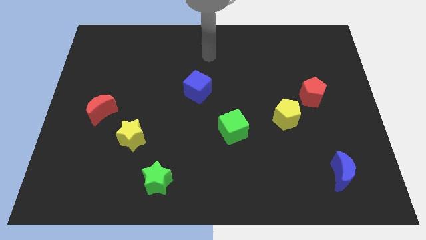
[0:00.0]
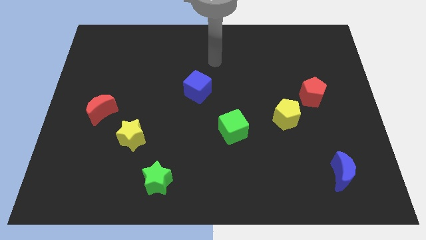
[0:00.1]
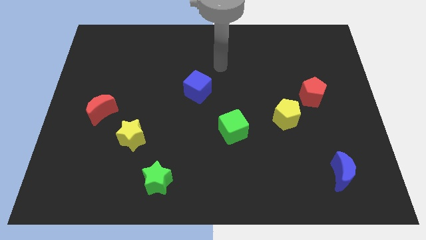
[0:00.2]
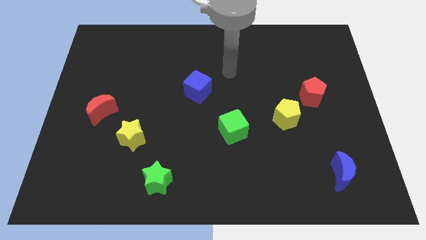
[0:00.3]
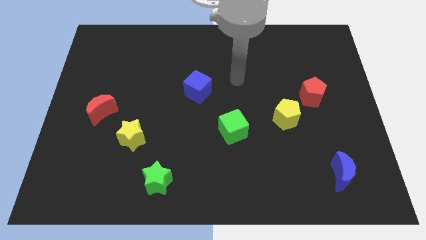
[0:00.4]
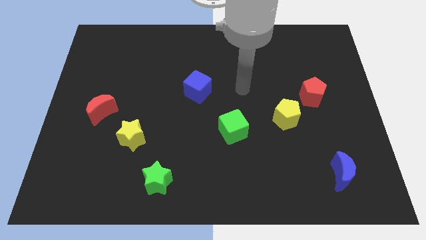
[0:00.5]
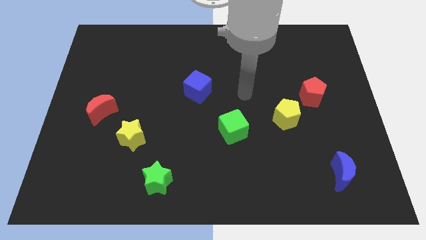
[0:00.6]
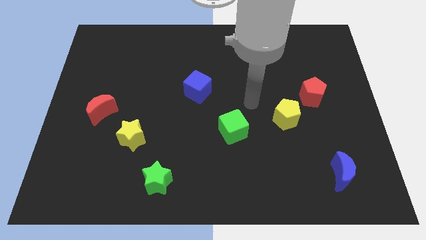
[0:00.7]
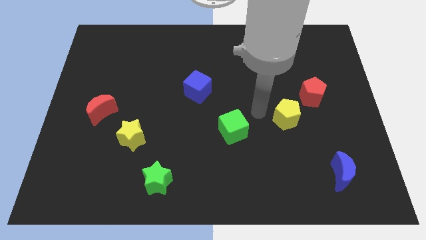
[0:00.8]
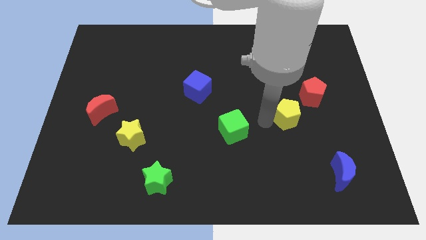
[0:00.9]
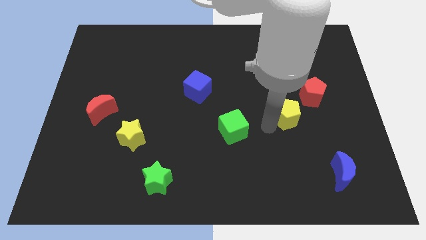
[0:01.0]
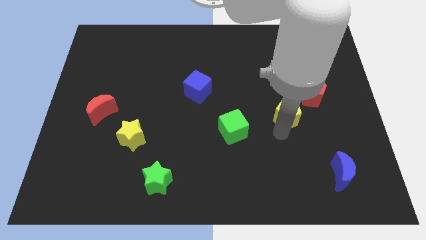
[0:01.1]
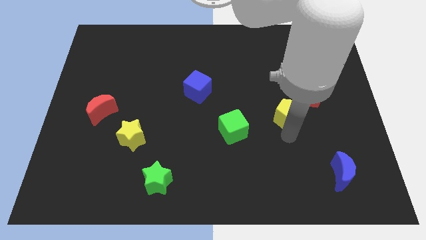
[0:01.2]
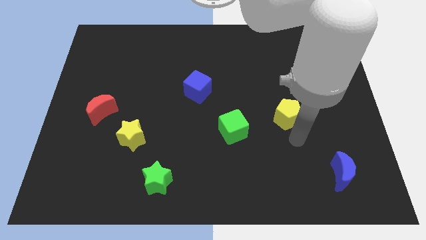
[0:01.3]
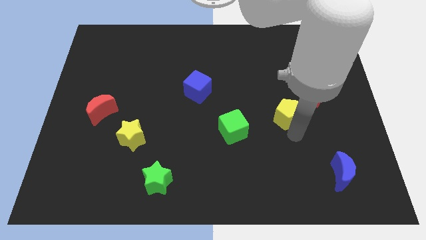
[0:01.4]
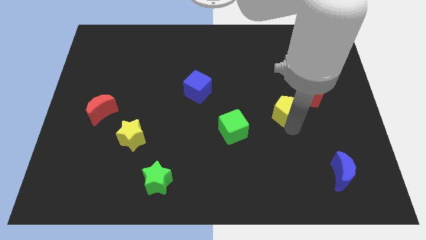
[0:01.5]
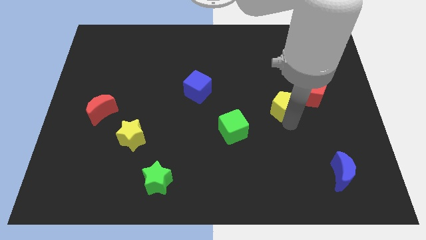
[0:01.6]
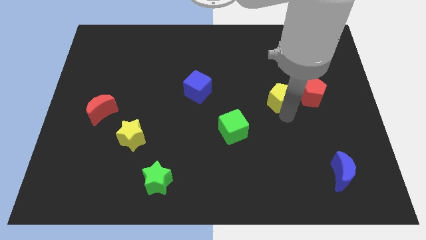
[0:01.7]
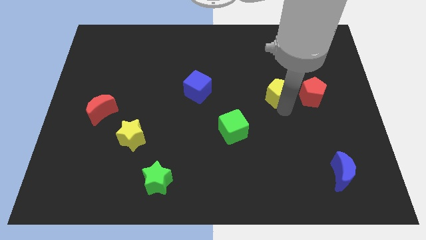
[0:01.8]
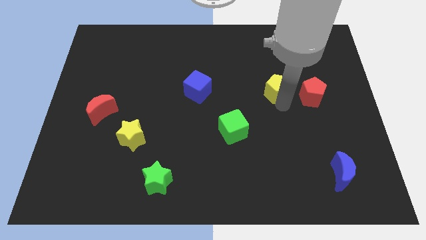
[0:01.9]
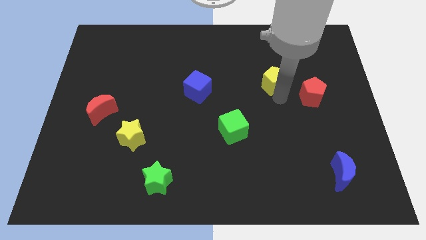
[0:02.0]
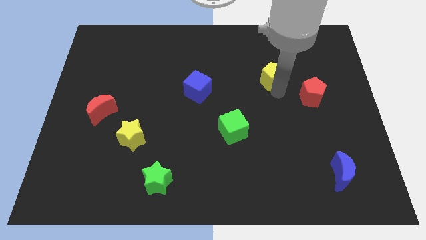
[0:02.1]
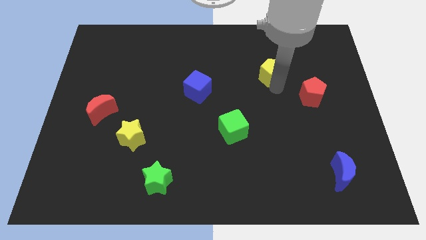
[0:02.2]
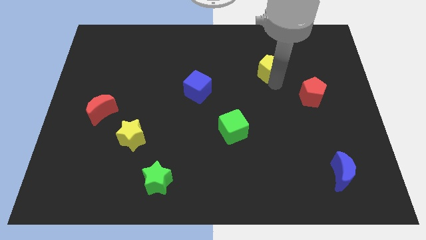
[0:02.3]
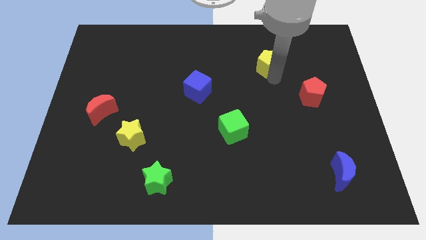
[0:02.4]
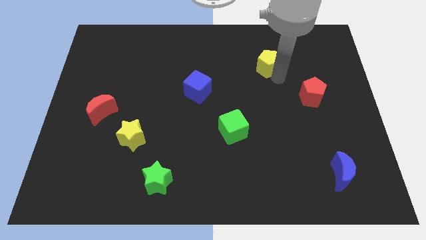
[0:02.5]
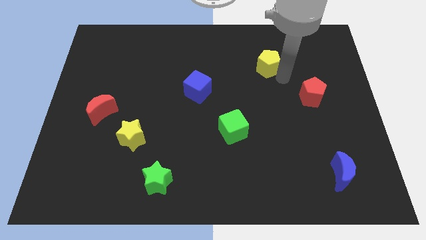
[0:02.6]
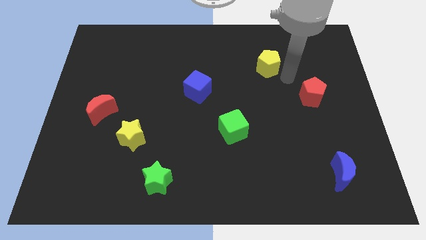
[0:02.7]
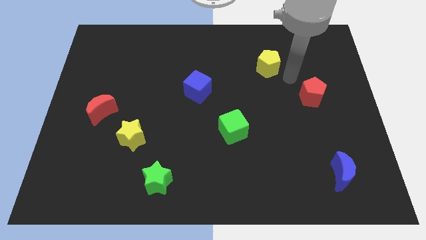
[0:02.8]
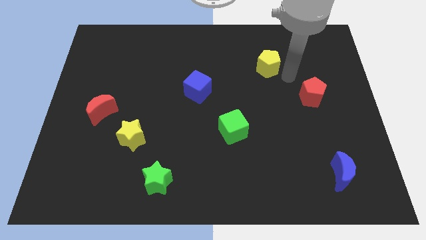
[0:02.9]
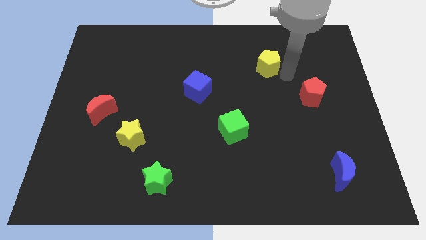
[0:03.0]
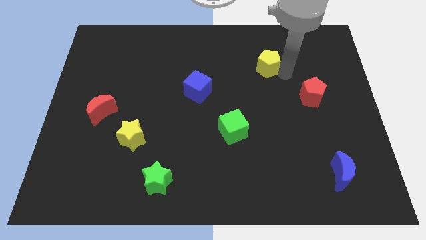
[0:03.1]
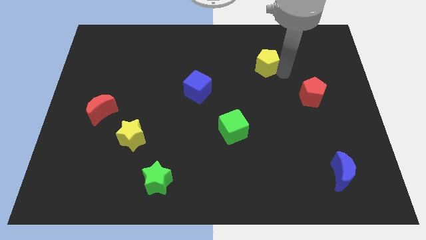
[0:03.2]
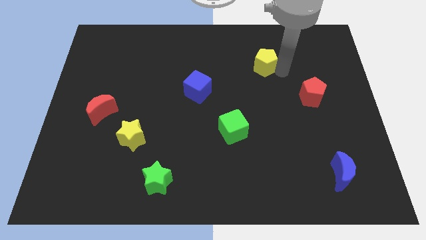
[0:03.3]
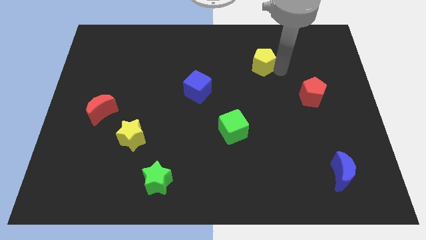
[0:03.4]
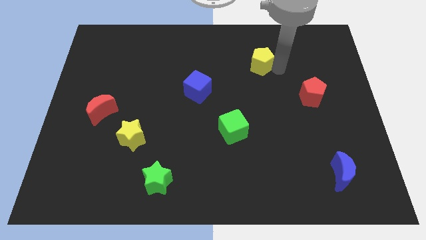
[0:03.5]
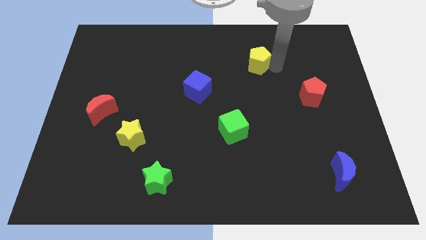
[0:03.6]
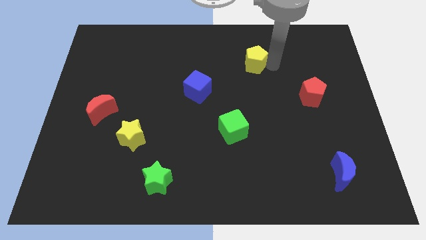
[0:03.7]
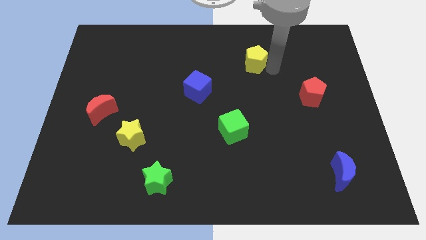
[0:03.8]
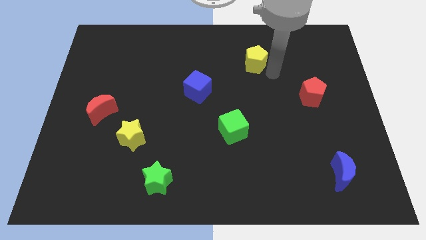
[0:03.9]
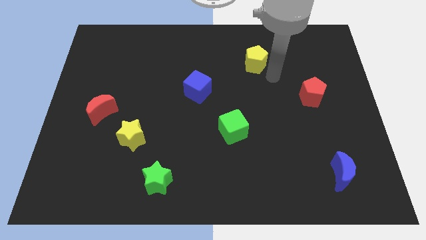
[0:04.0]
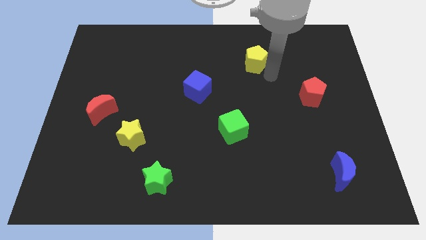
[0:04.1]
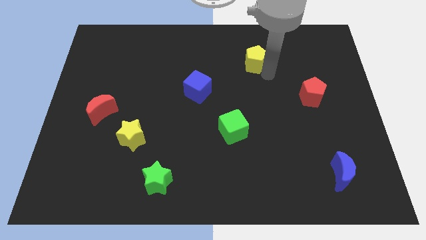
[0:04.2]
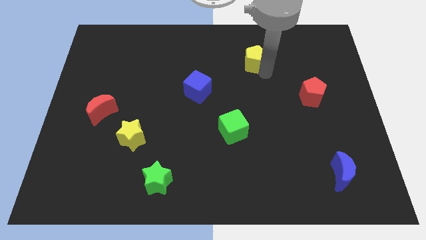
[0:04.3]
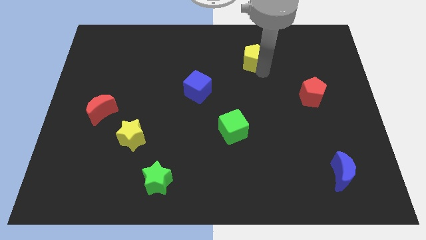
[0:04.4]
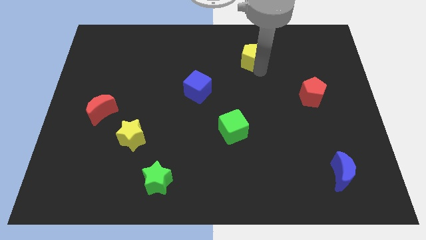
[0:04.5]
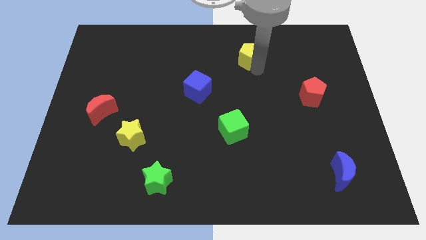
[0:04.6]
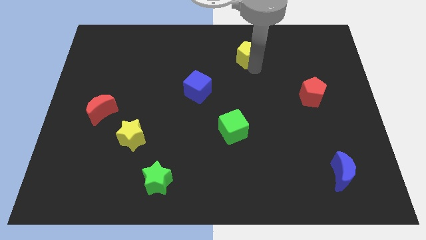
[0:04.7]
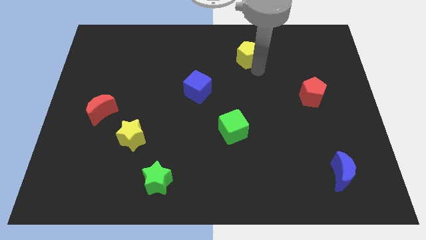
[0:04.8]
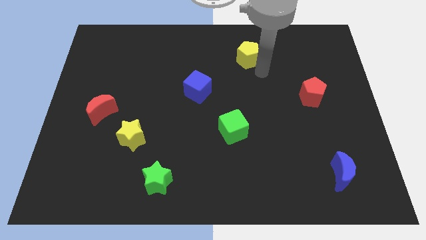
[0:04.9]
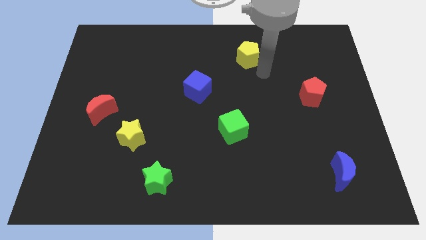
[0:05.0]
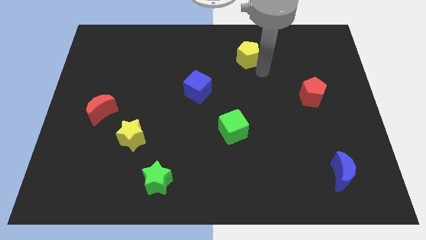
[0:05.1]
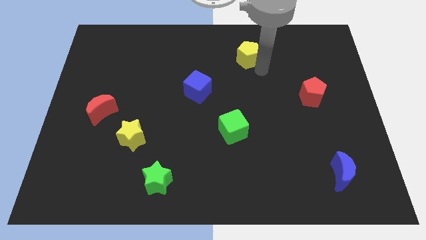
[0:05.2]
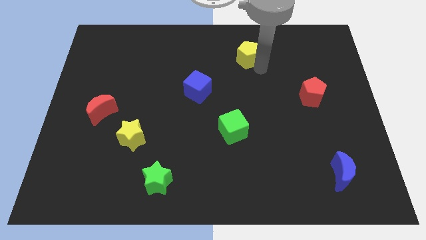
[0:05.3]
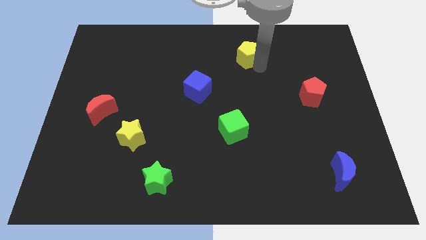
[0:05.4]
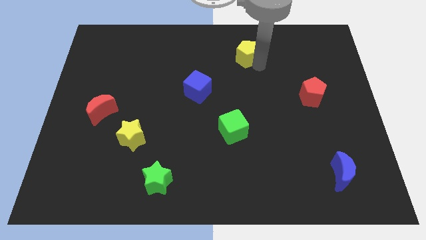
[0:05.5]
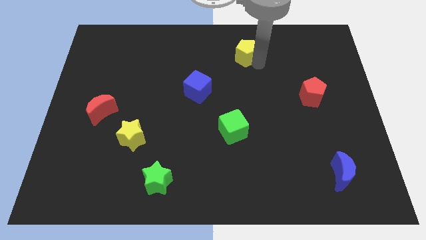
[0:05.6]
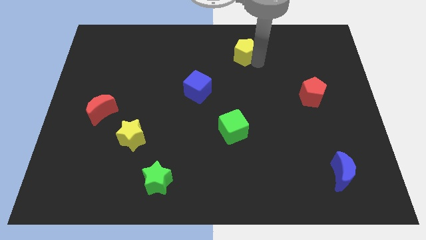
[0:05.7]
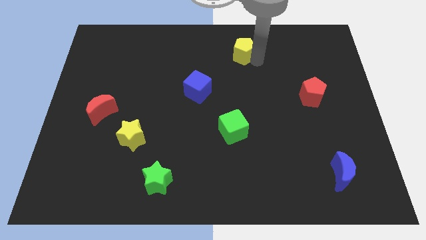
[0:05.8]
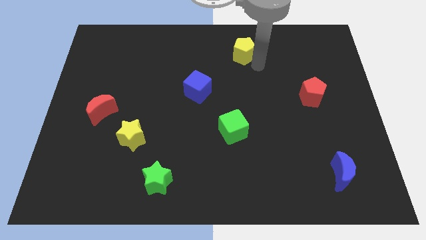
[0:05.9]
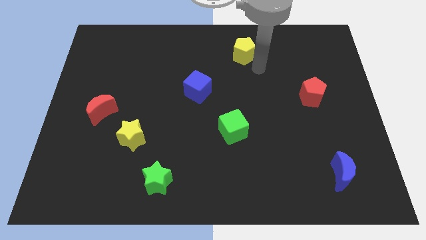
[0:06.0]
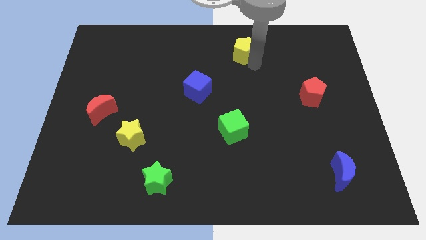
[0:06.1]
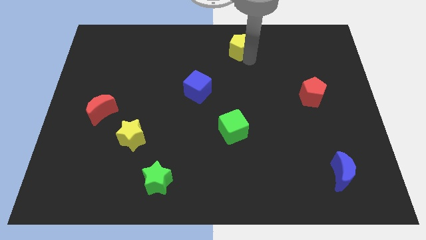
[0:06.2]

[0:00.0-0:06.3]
move the yellow pentagon to the top side

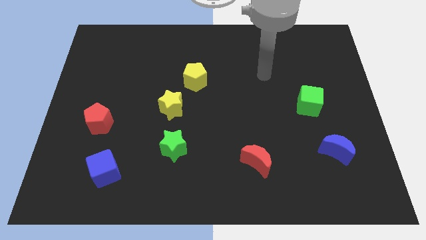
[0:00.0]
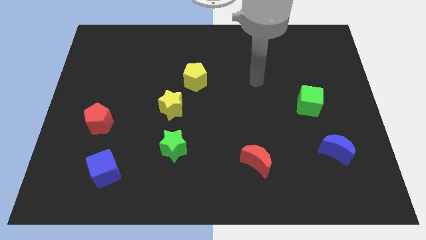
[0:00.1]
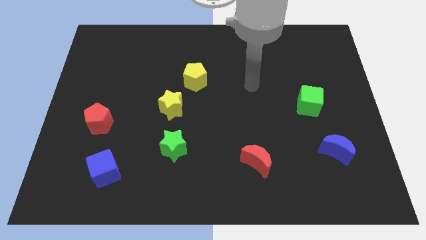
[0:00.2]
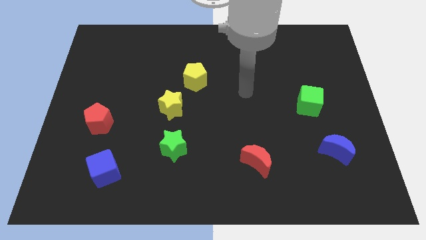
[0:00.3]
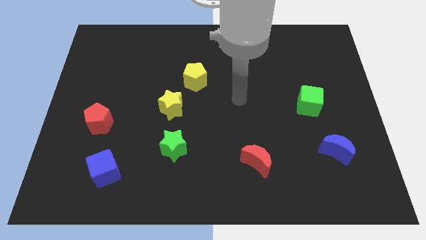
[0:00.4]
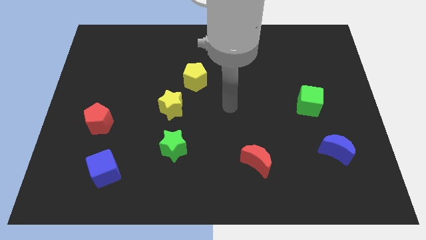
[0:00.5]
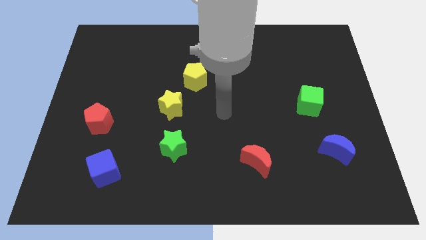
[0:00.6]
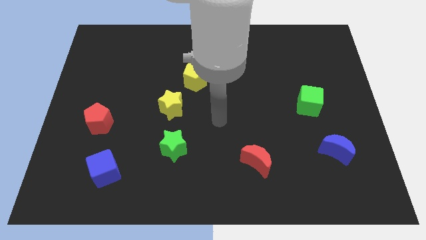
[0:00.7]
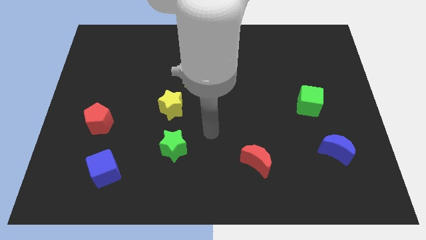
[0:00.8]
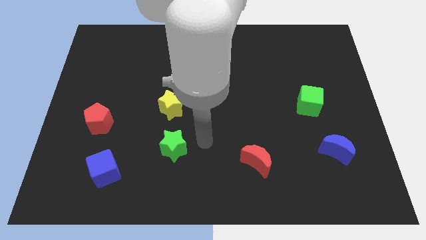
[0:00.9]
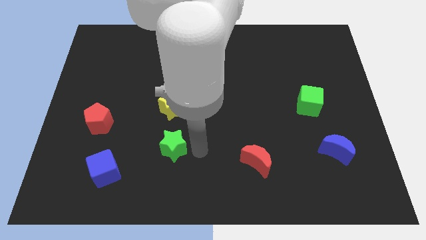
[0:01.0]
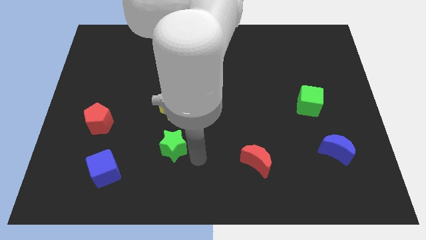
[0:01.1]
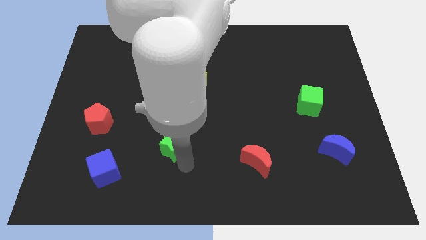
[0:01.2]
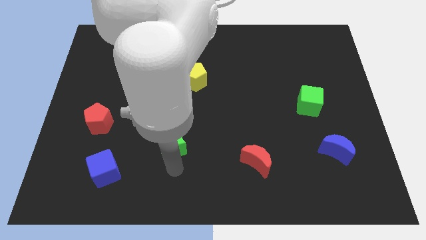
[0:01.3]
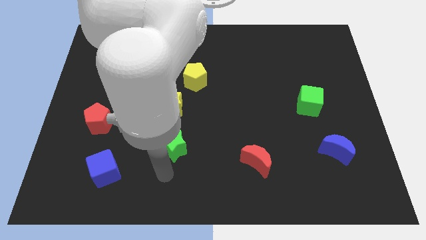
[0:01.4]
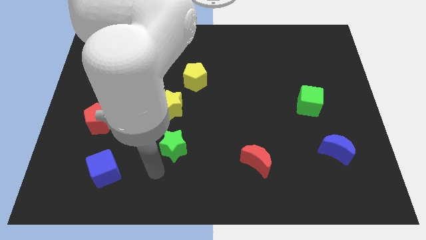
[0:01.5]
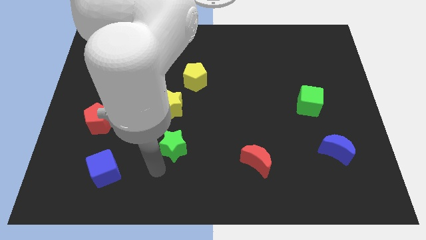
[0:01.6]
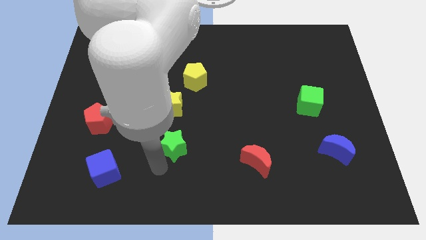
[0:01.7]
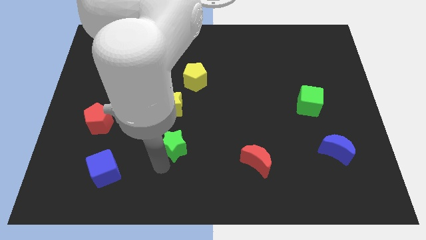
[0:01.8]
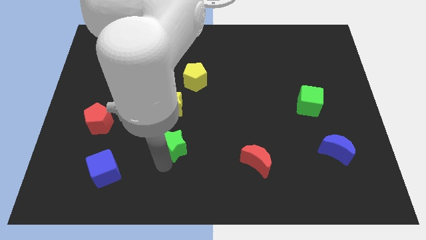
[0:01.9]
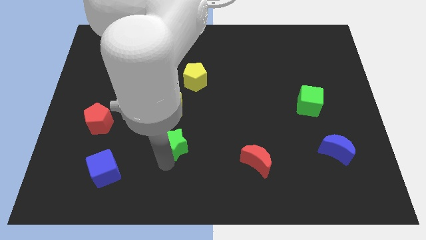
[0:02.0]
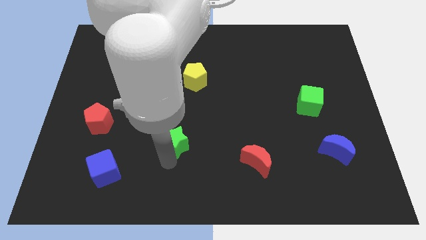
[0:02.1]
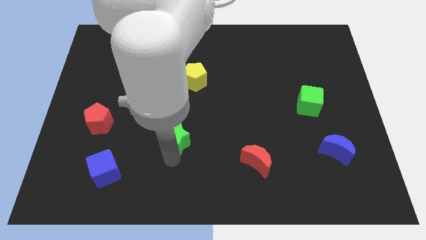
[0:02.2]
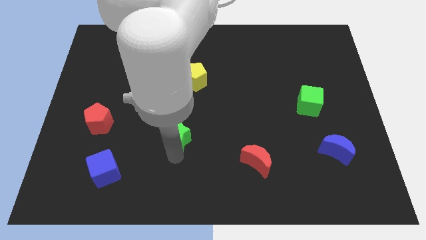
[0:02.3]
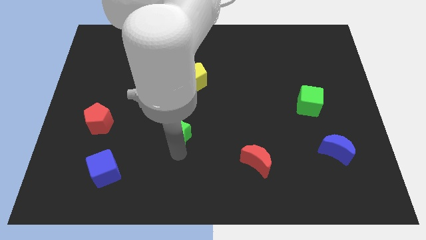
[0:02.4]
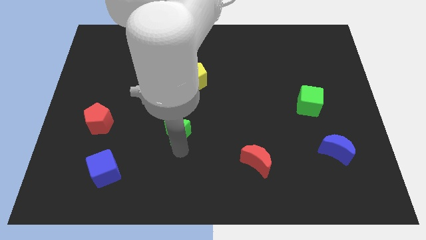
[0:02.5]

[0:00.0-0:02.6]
push the green star to the center
